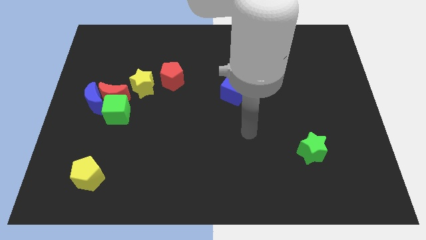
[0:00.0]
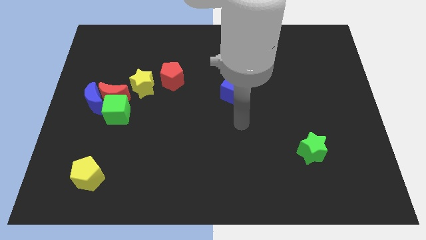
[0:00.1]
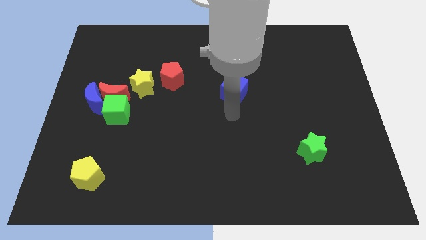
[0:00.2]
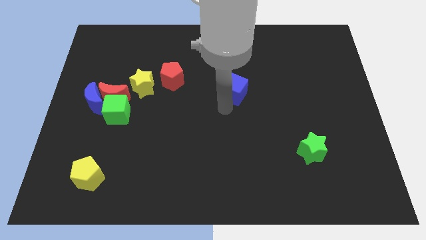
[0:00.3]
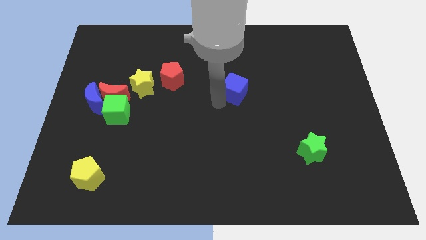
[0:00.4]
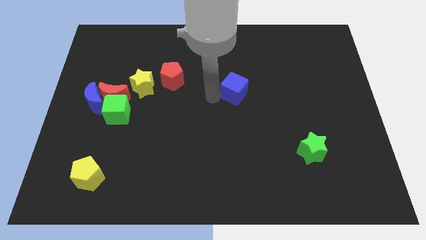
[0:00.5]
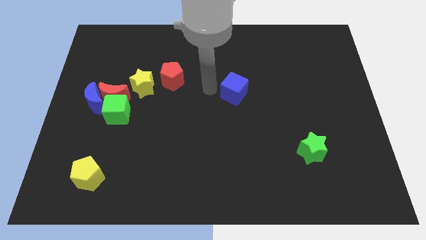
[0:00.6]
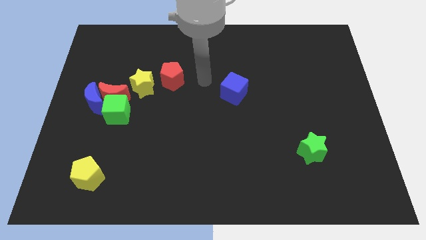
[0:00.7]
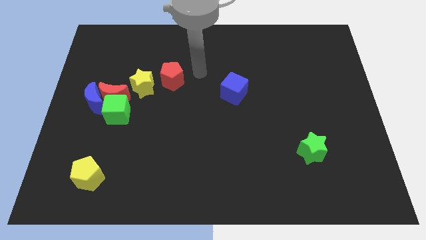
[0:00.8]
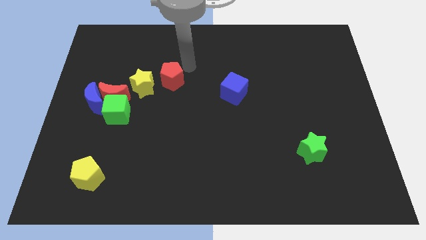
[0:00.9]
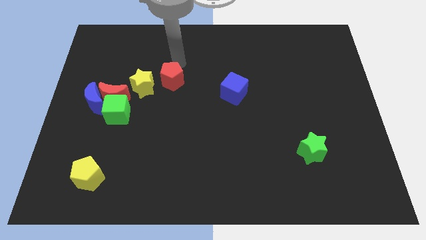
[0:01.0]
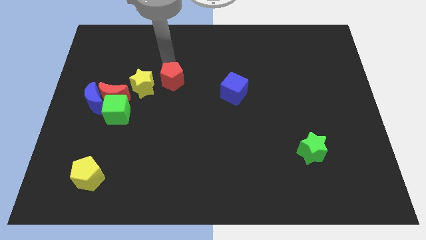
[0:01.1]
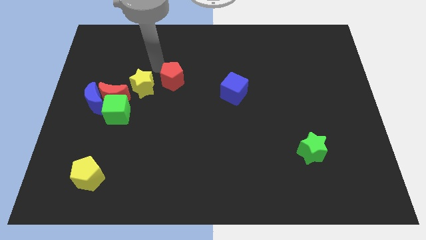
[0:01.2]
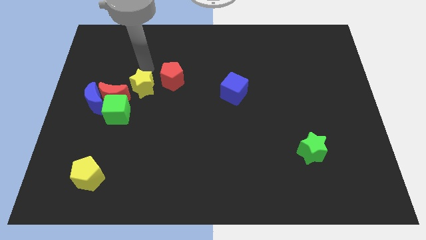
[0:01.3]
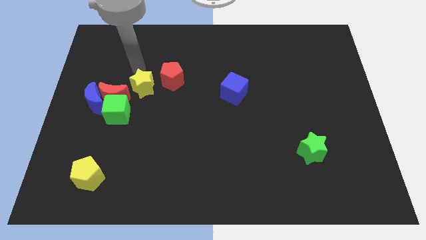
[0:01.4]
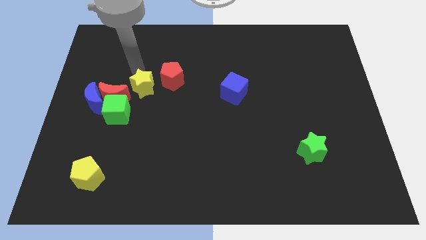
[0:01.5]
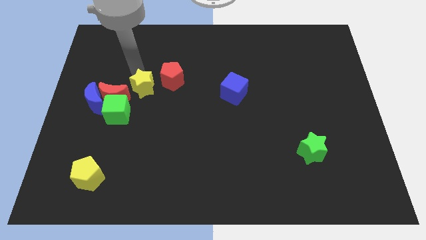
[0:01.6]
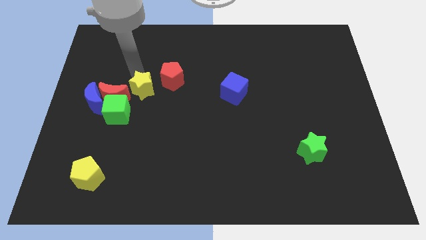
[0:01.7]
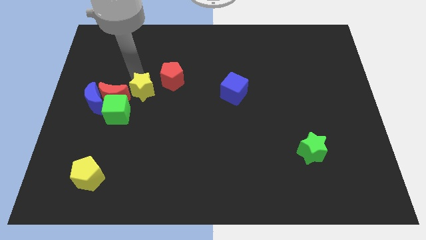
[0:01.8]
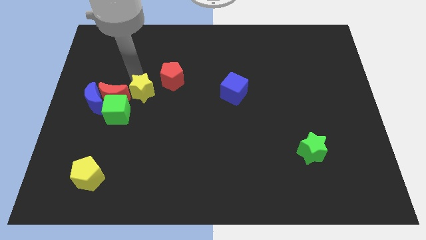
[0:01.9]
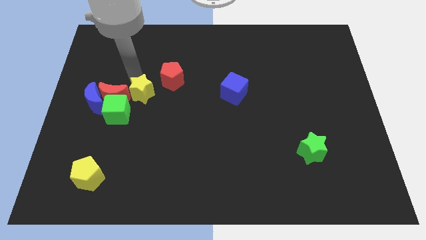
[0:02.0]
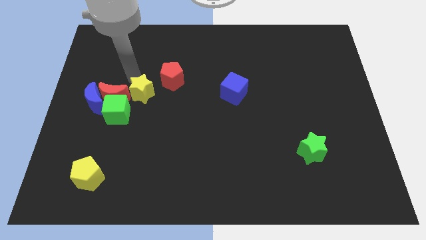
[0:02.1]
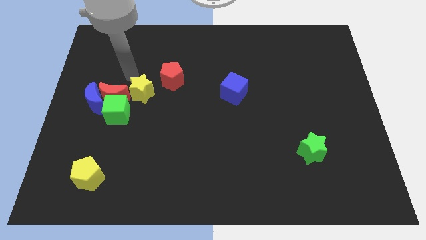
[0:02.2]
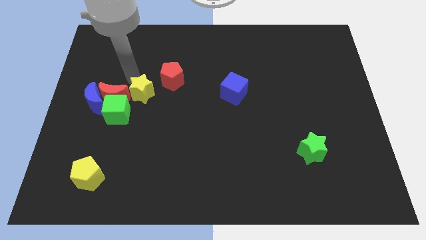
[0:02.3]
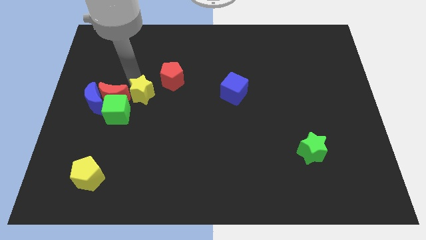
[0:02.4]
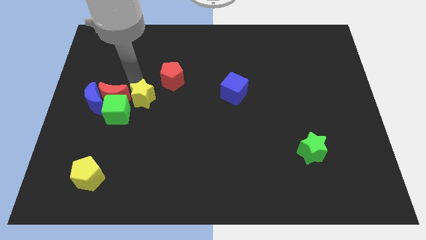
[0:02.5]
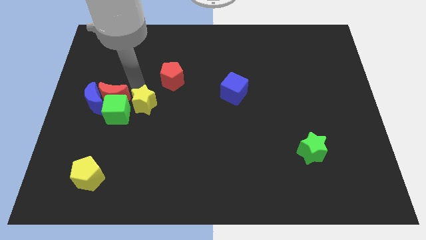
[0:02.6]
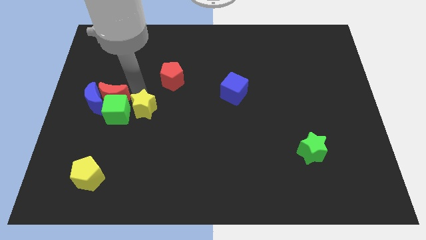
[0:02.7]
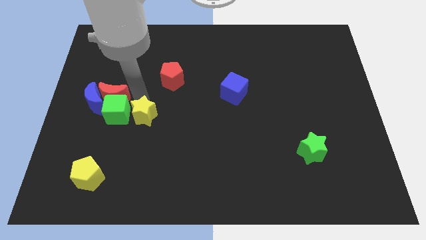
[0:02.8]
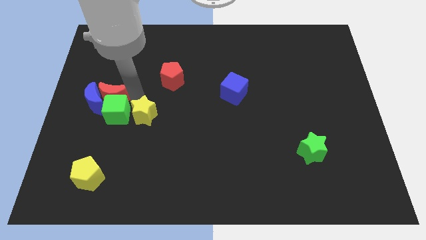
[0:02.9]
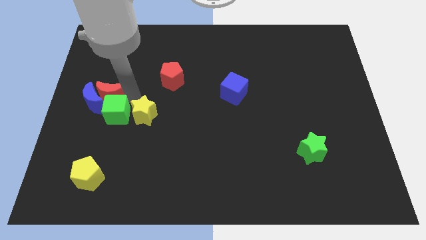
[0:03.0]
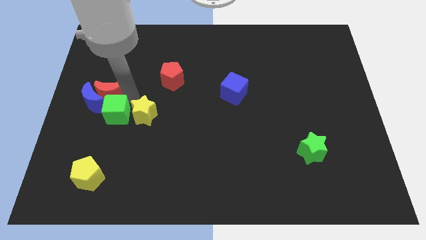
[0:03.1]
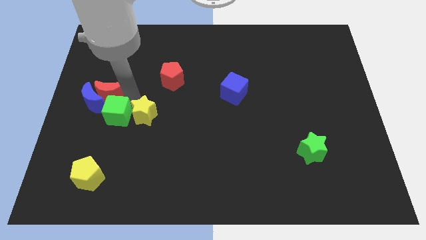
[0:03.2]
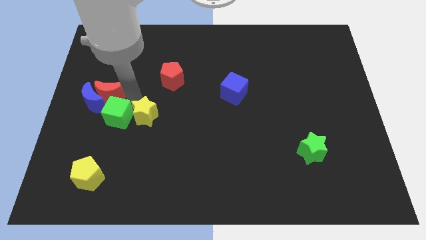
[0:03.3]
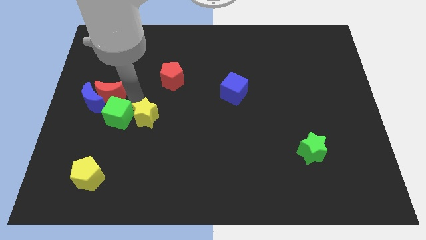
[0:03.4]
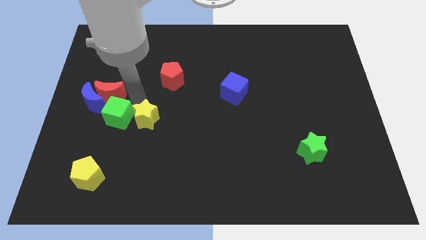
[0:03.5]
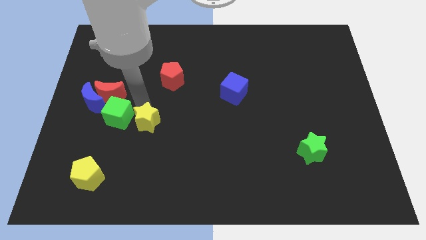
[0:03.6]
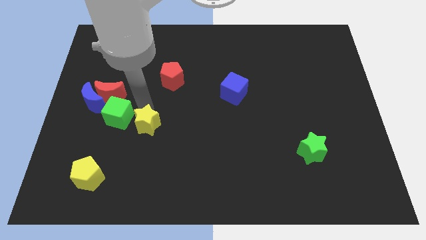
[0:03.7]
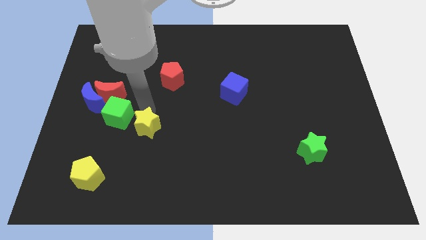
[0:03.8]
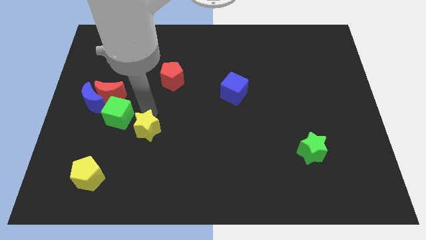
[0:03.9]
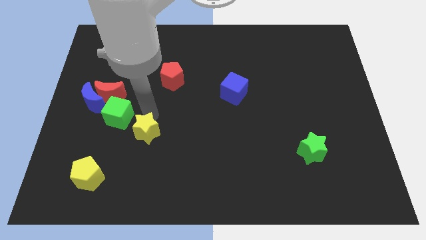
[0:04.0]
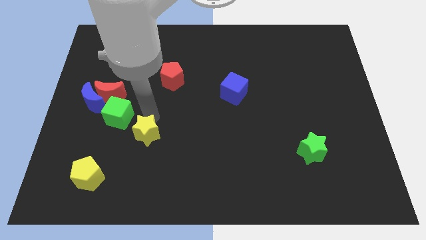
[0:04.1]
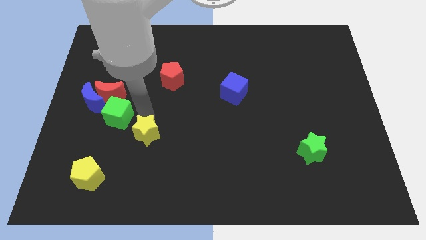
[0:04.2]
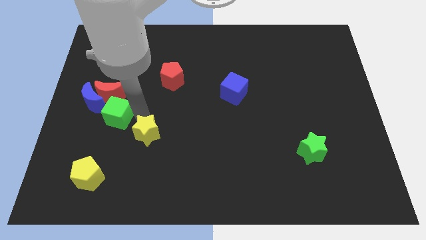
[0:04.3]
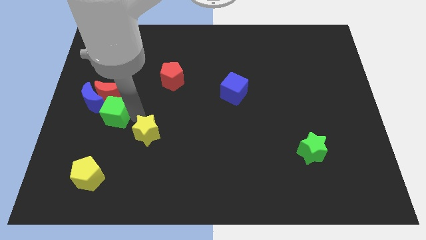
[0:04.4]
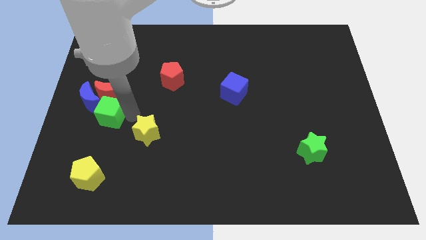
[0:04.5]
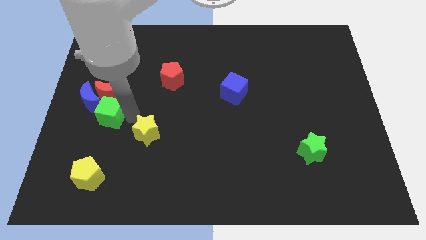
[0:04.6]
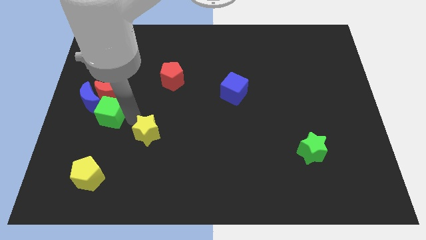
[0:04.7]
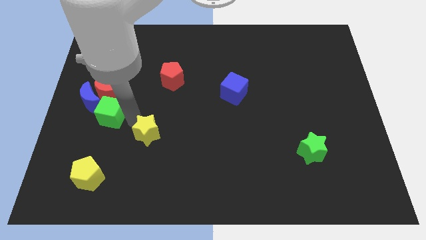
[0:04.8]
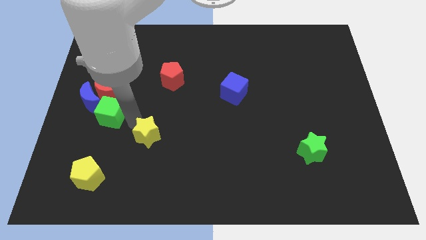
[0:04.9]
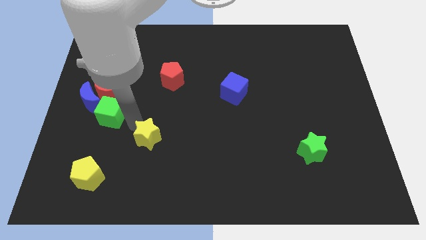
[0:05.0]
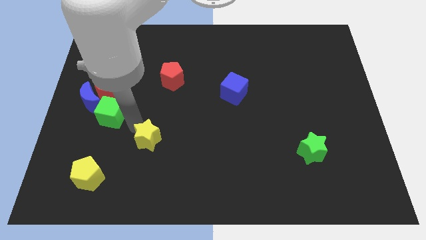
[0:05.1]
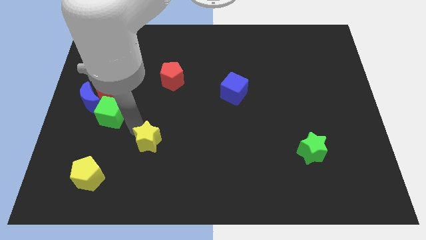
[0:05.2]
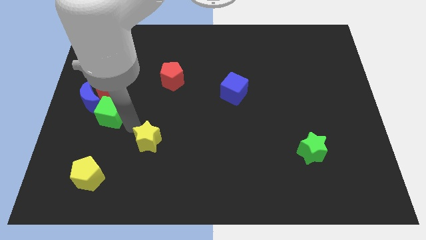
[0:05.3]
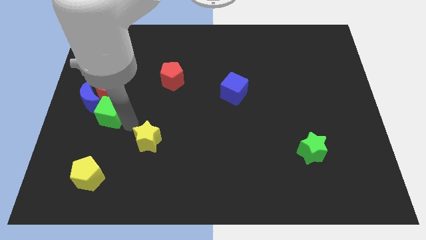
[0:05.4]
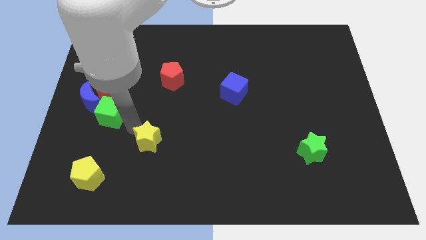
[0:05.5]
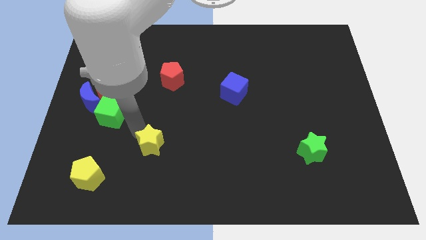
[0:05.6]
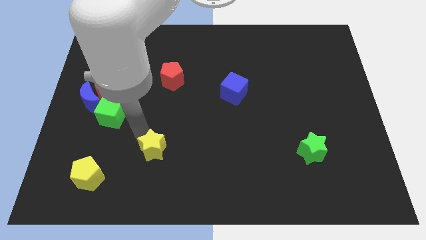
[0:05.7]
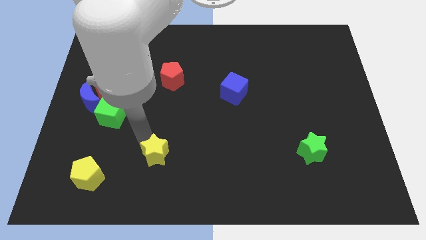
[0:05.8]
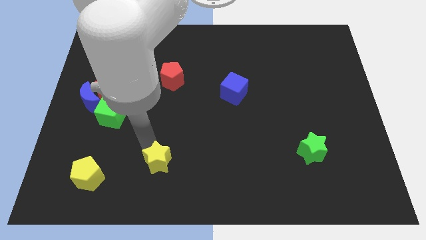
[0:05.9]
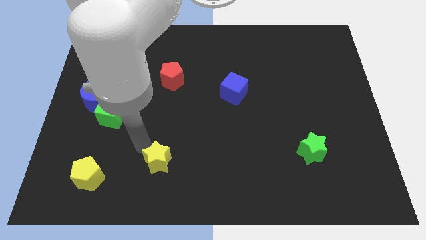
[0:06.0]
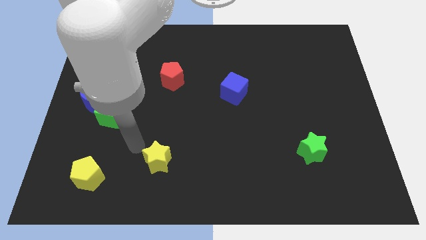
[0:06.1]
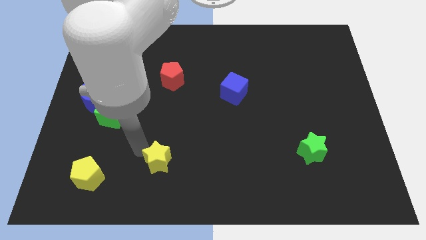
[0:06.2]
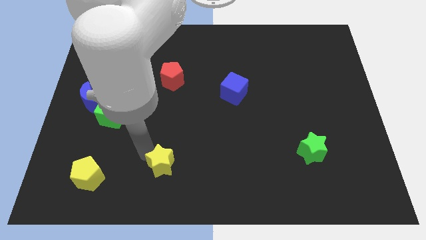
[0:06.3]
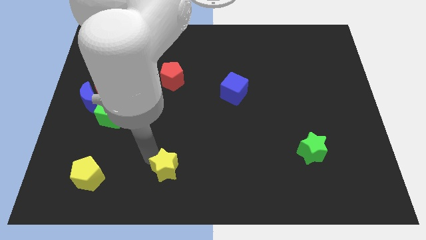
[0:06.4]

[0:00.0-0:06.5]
move the yellow star to the bottom side

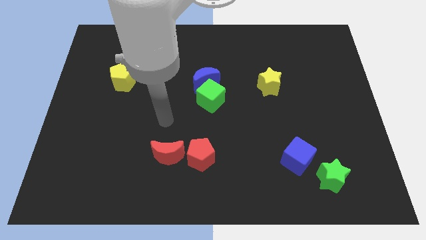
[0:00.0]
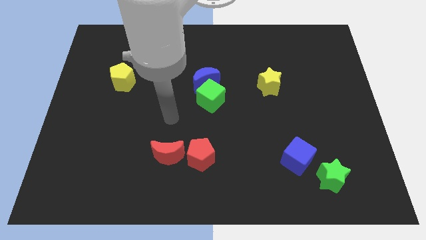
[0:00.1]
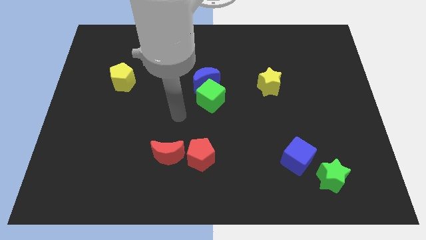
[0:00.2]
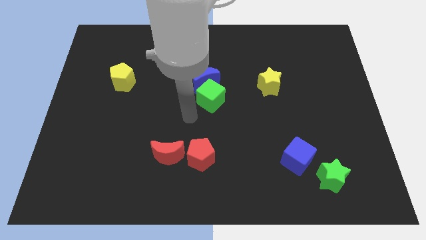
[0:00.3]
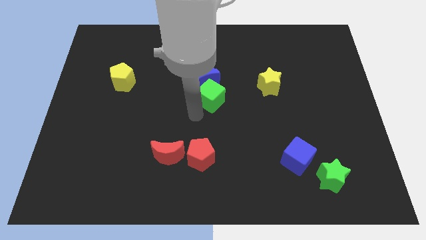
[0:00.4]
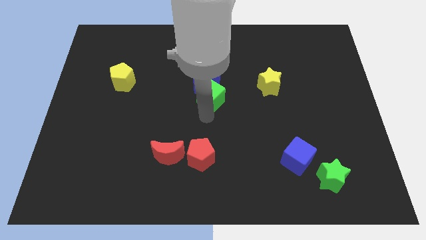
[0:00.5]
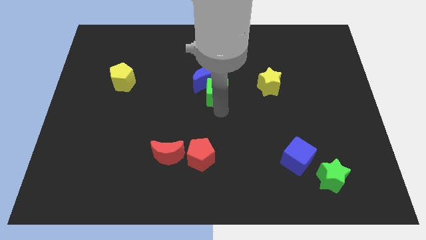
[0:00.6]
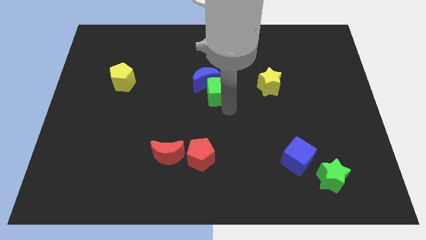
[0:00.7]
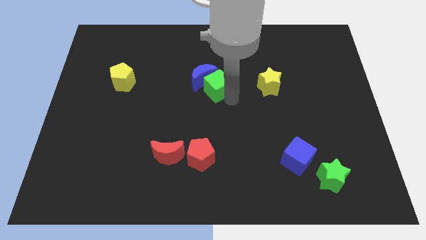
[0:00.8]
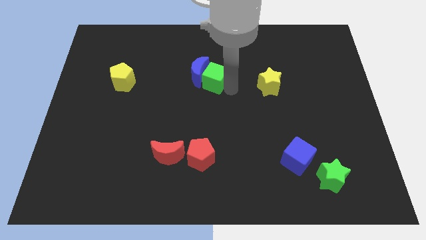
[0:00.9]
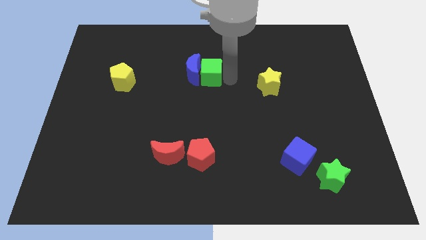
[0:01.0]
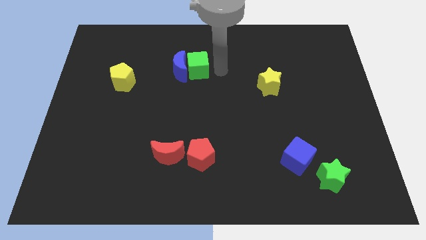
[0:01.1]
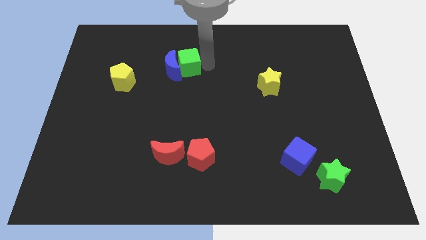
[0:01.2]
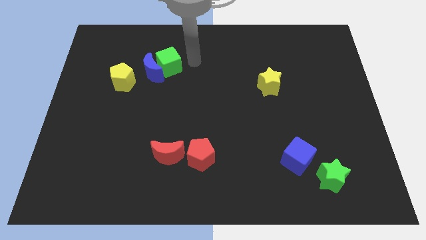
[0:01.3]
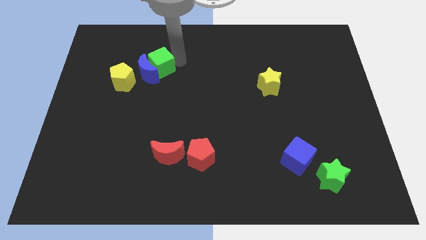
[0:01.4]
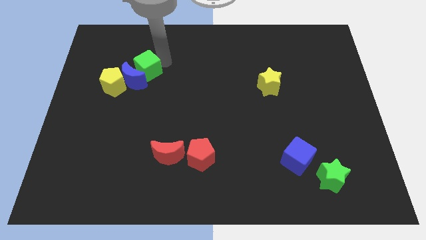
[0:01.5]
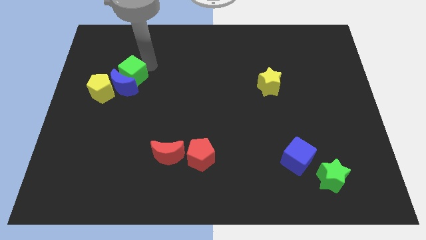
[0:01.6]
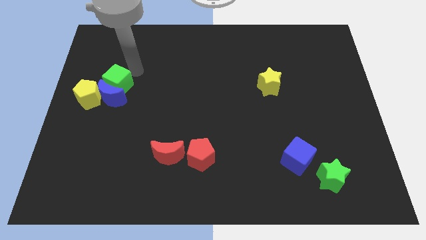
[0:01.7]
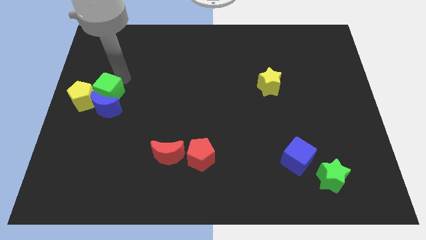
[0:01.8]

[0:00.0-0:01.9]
push the blue moon to the left side of the board
